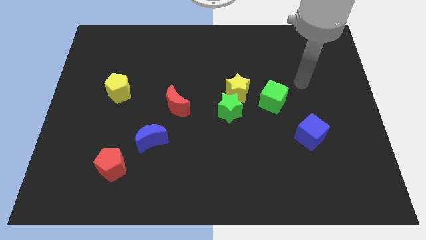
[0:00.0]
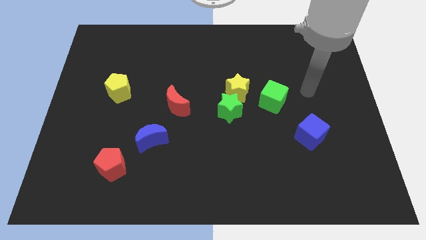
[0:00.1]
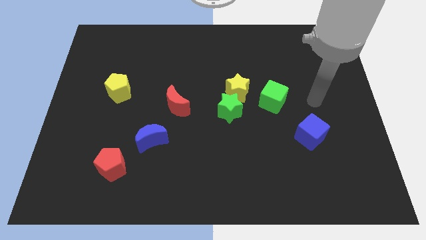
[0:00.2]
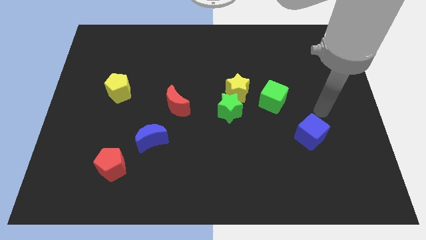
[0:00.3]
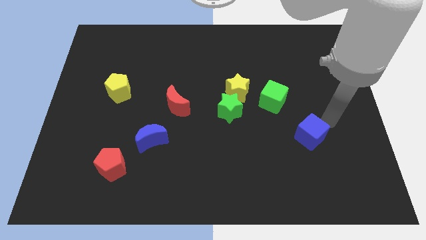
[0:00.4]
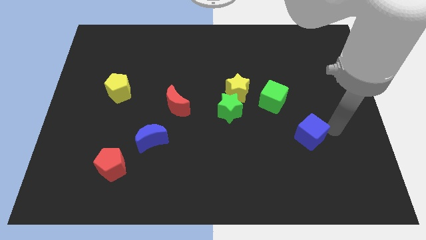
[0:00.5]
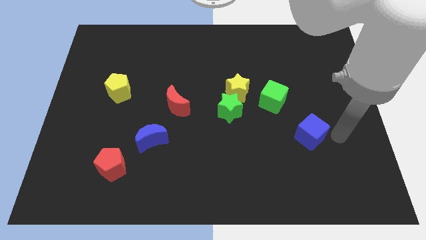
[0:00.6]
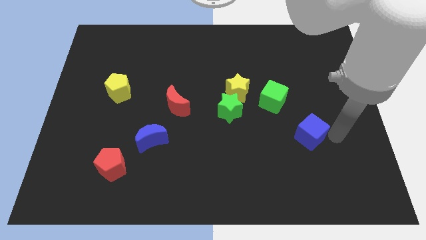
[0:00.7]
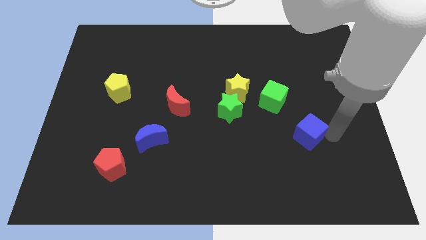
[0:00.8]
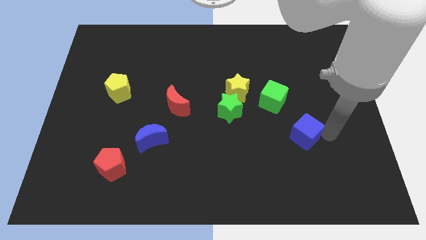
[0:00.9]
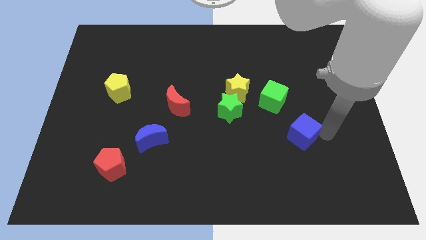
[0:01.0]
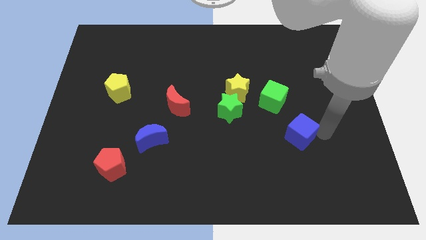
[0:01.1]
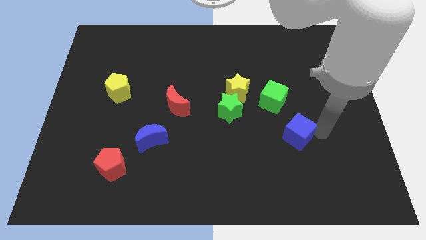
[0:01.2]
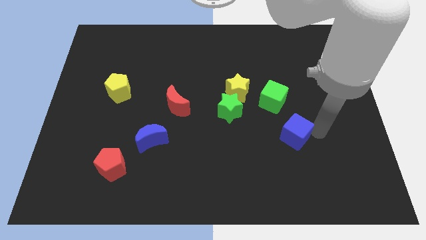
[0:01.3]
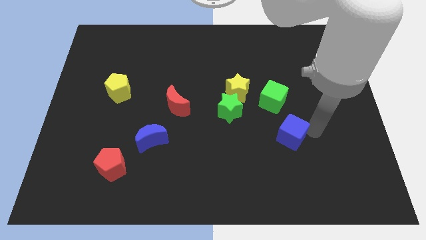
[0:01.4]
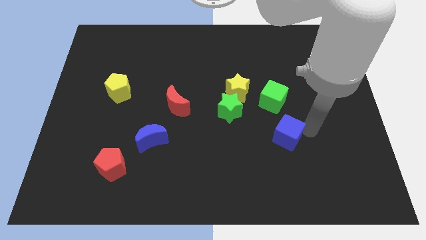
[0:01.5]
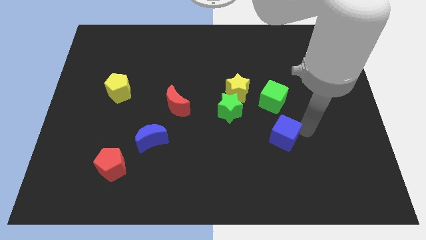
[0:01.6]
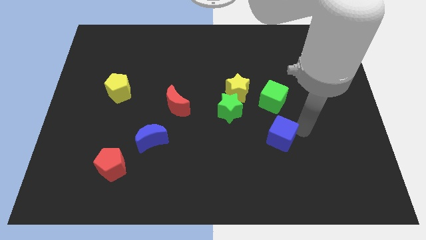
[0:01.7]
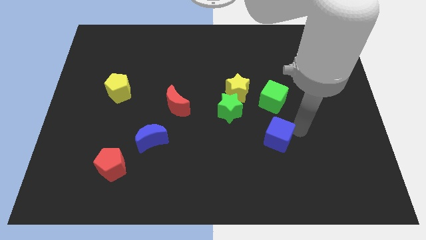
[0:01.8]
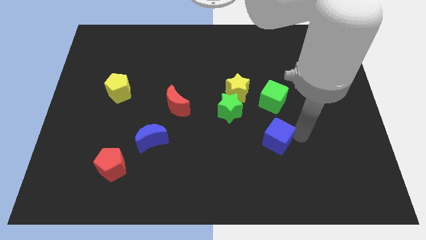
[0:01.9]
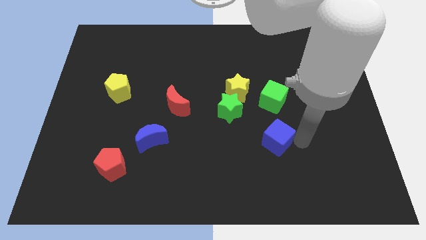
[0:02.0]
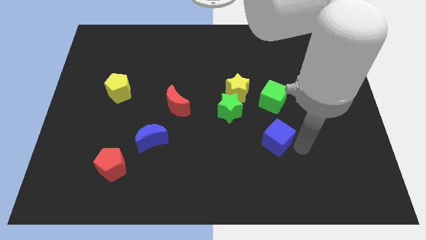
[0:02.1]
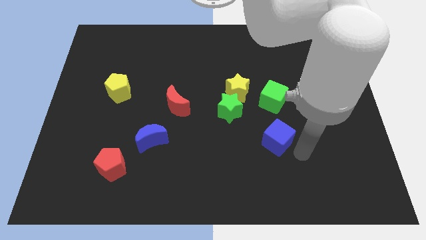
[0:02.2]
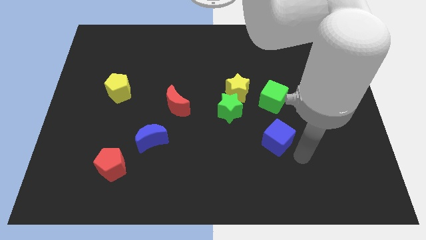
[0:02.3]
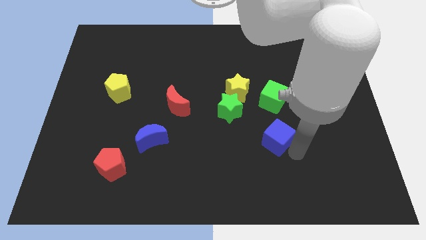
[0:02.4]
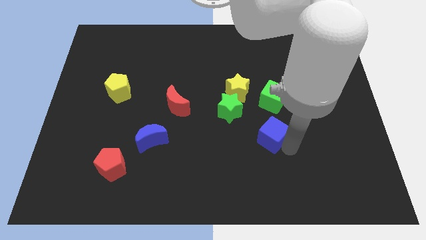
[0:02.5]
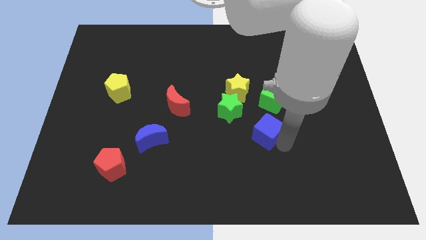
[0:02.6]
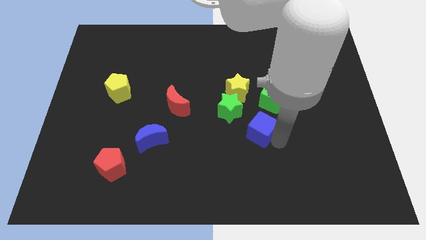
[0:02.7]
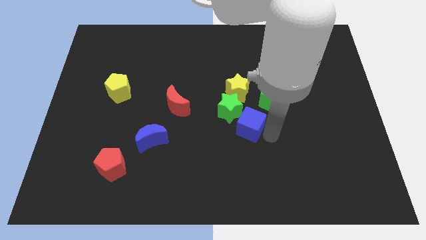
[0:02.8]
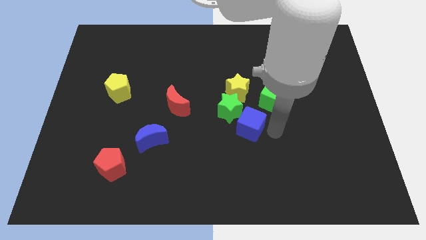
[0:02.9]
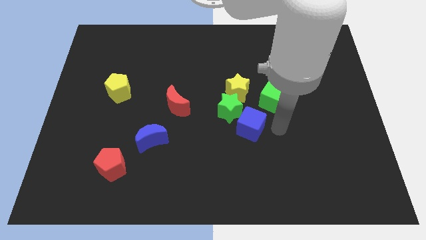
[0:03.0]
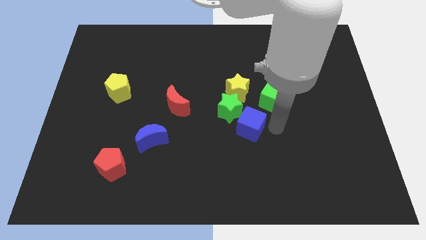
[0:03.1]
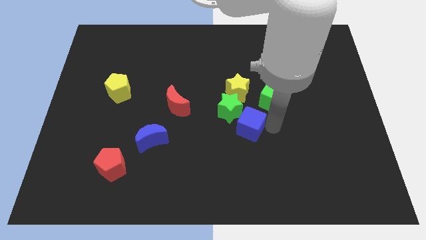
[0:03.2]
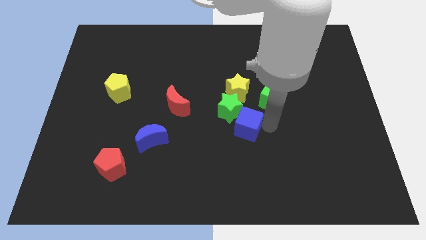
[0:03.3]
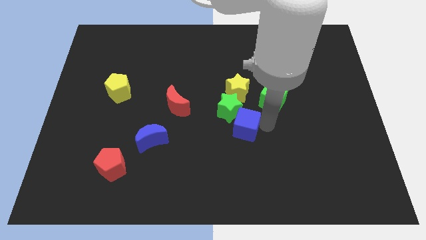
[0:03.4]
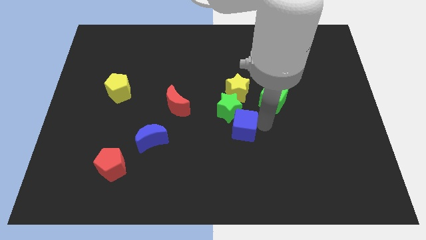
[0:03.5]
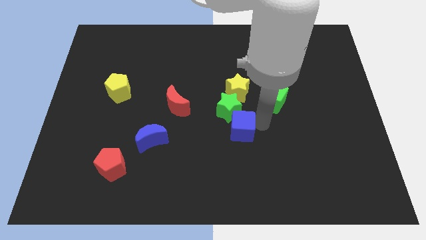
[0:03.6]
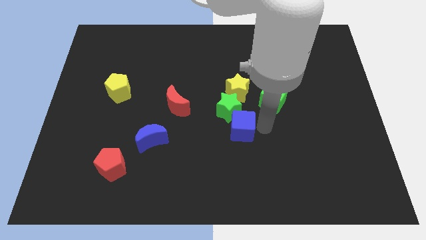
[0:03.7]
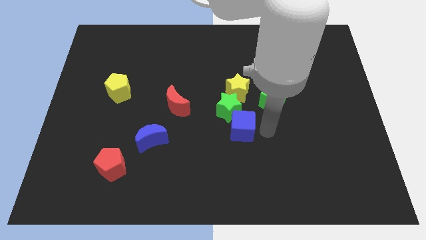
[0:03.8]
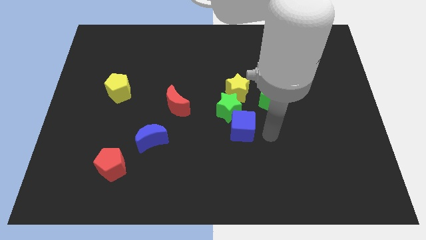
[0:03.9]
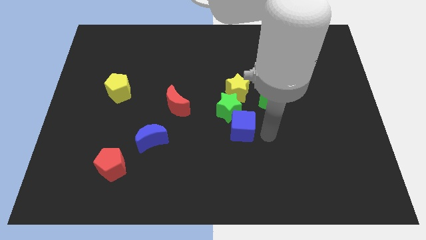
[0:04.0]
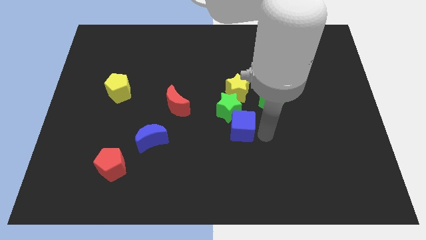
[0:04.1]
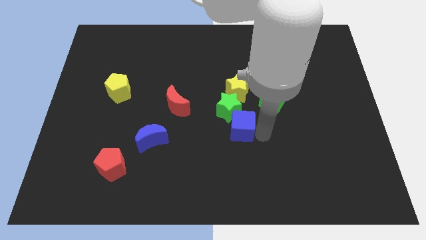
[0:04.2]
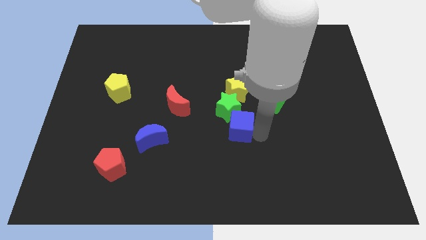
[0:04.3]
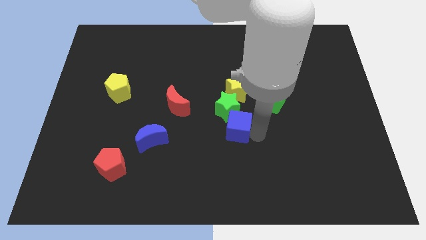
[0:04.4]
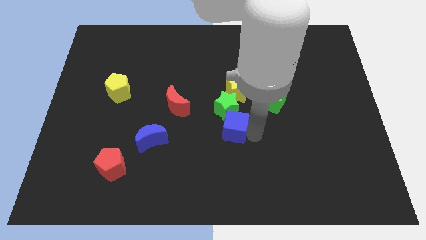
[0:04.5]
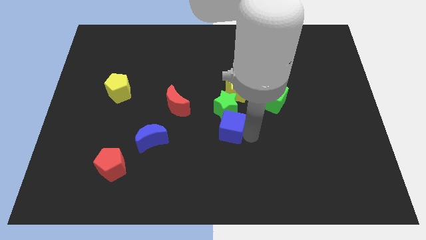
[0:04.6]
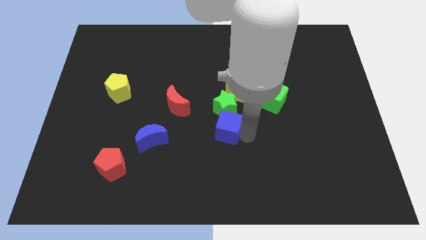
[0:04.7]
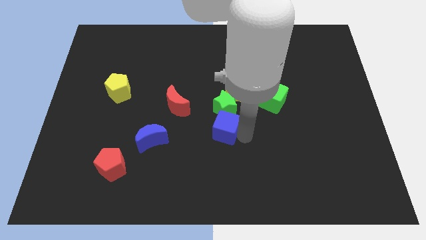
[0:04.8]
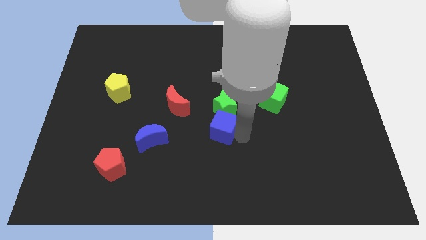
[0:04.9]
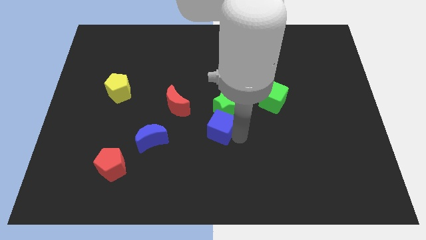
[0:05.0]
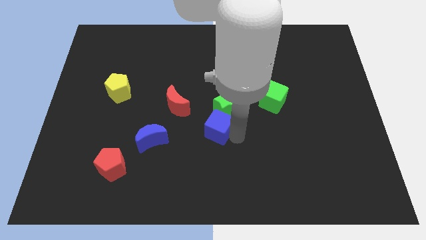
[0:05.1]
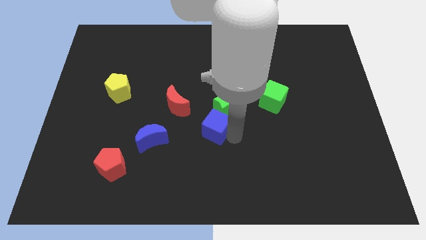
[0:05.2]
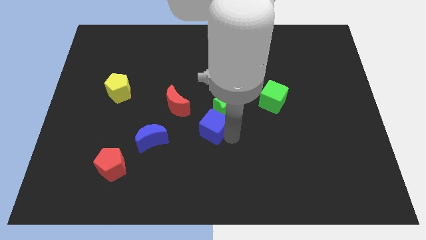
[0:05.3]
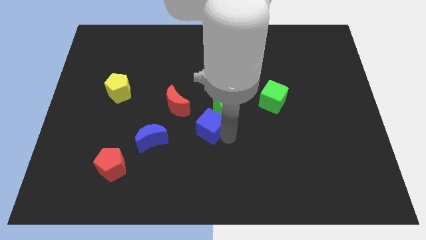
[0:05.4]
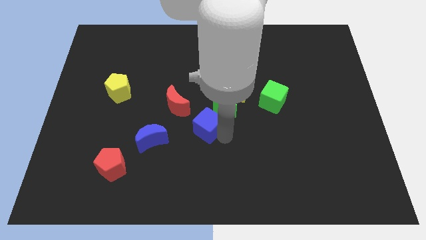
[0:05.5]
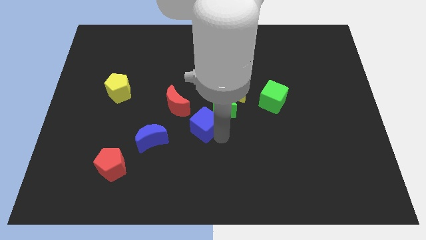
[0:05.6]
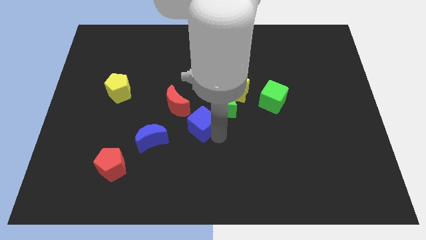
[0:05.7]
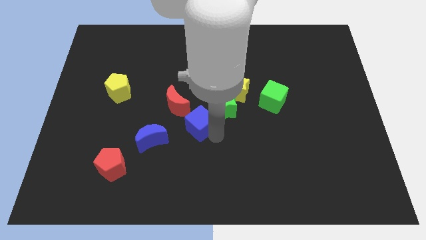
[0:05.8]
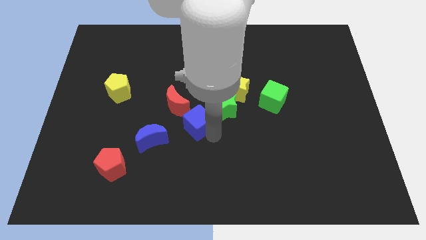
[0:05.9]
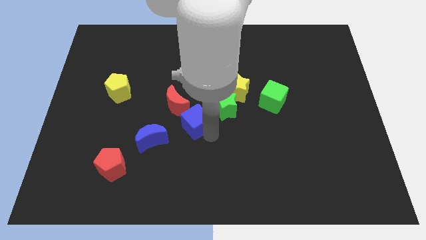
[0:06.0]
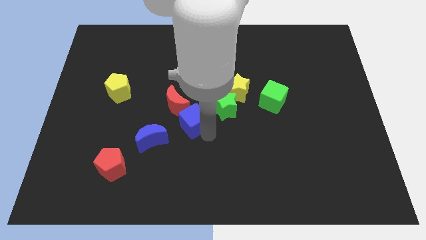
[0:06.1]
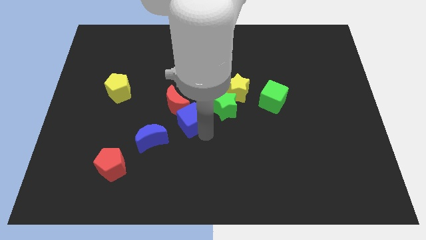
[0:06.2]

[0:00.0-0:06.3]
push the blue cube towards the red moon

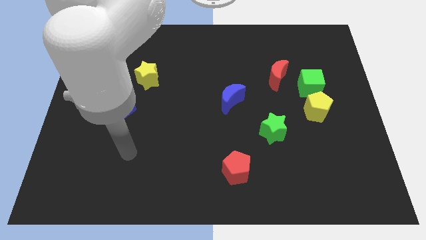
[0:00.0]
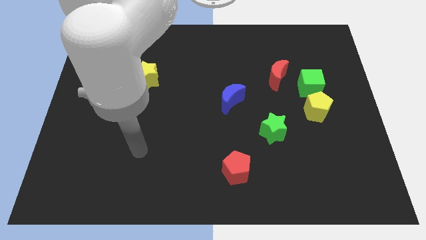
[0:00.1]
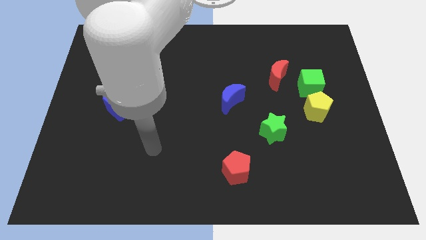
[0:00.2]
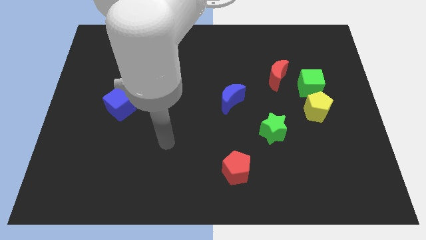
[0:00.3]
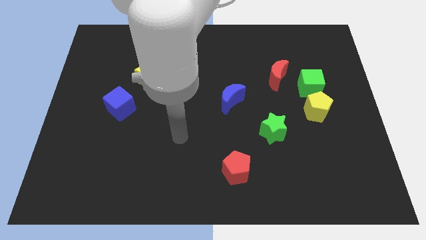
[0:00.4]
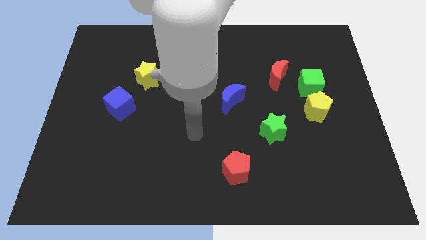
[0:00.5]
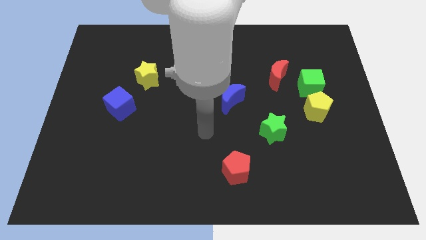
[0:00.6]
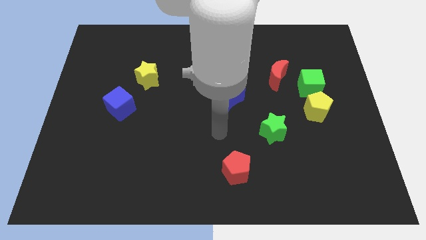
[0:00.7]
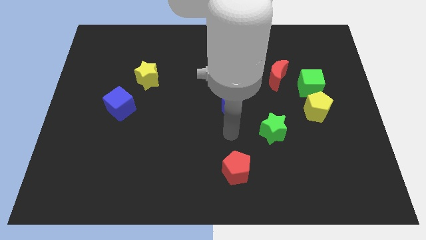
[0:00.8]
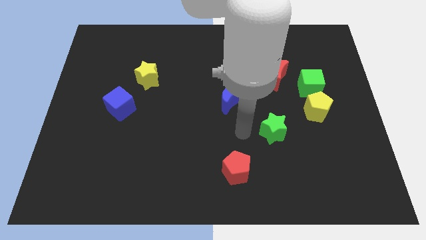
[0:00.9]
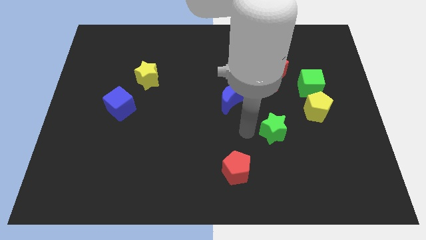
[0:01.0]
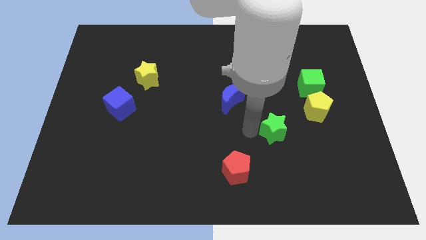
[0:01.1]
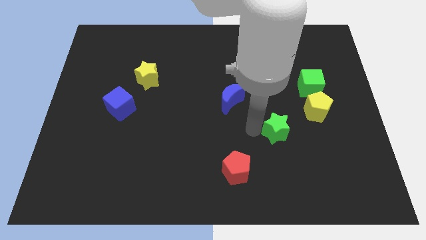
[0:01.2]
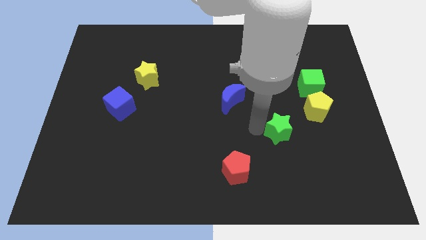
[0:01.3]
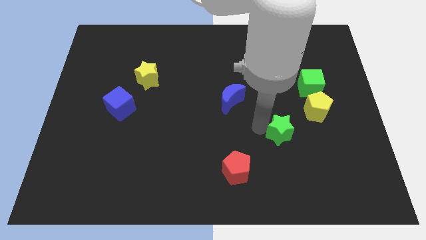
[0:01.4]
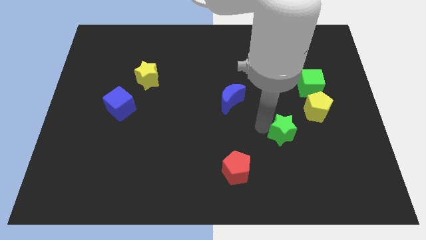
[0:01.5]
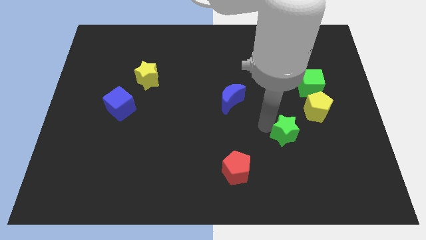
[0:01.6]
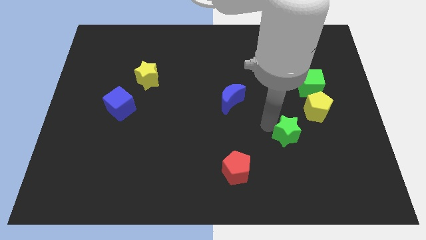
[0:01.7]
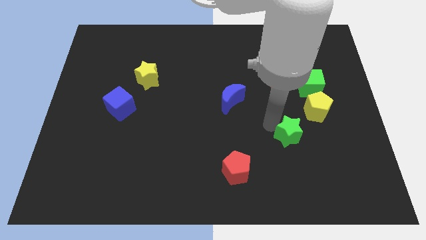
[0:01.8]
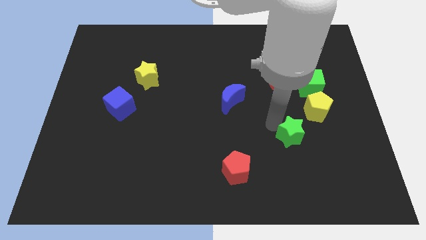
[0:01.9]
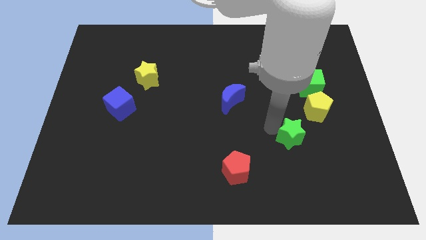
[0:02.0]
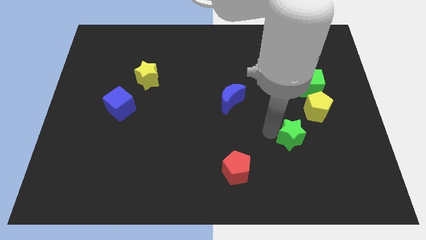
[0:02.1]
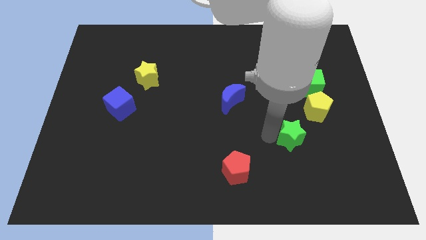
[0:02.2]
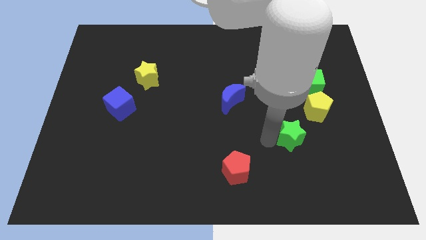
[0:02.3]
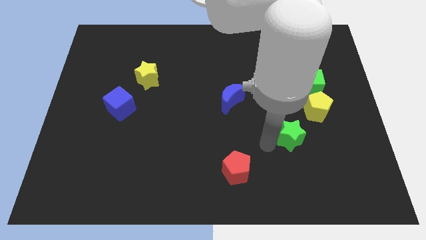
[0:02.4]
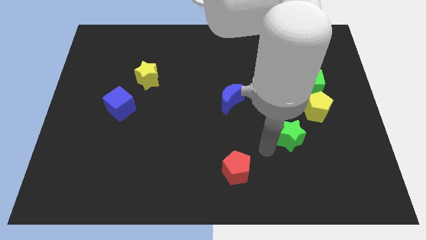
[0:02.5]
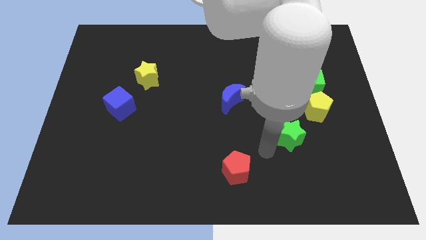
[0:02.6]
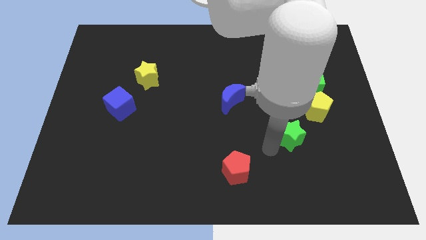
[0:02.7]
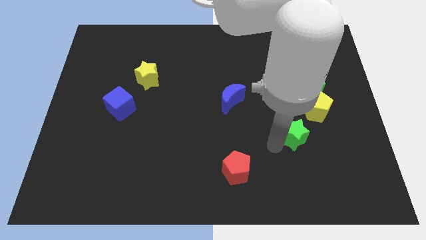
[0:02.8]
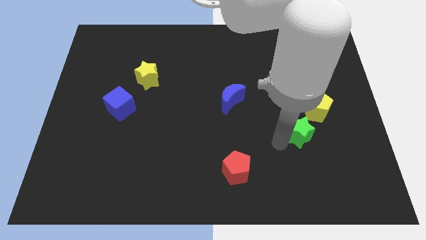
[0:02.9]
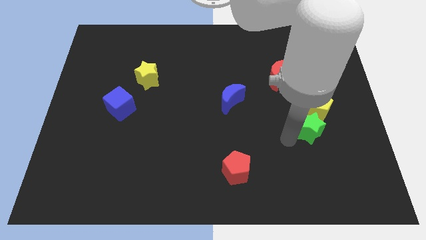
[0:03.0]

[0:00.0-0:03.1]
slide the green star close to the yellow pentagon
